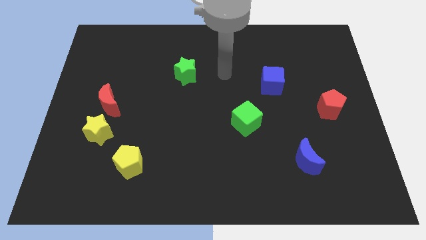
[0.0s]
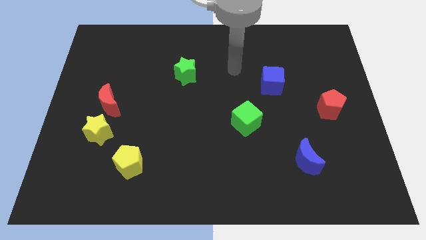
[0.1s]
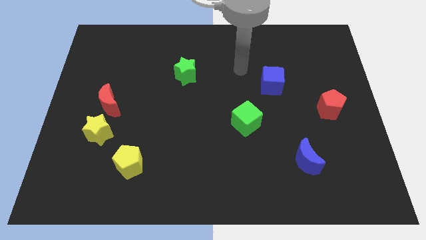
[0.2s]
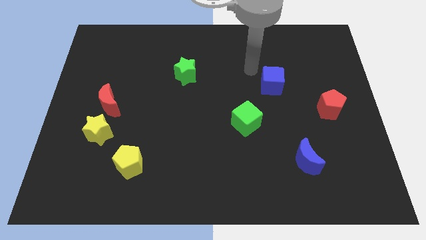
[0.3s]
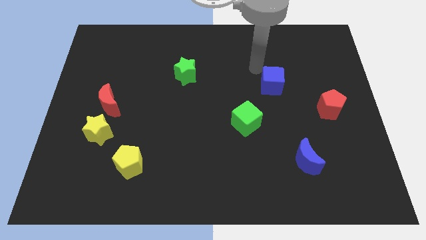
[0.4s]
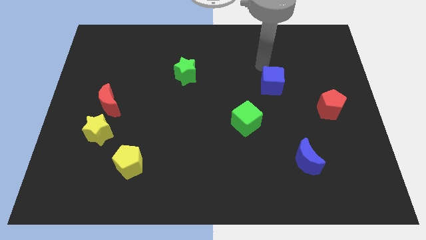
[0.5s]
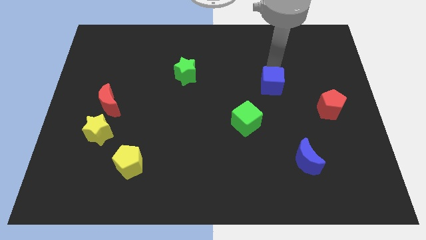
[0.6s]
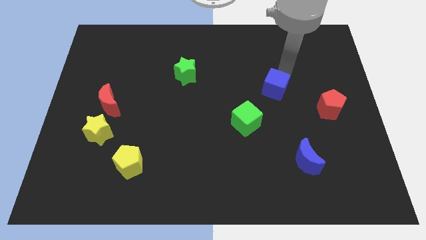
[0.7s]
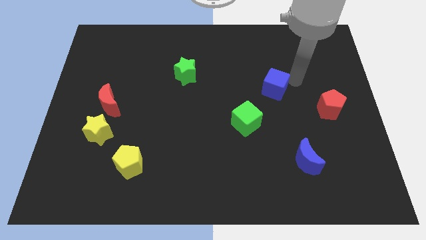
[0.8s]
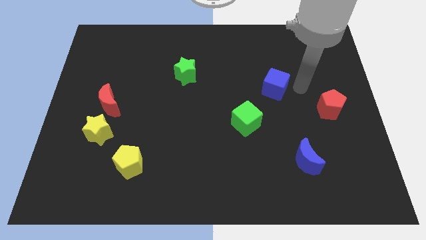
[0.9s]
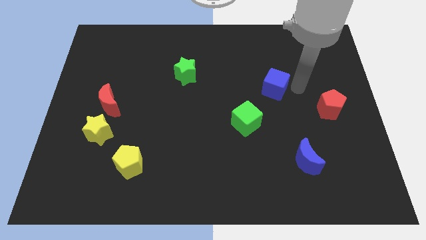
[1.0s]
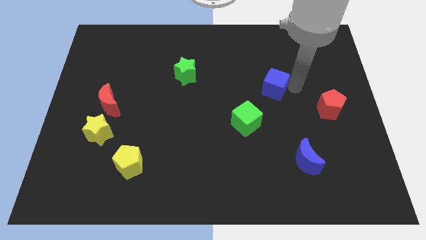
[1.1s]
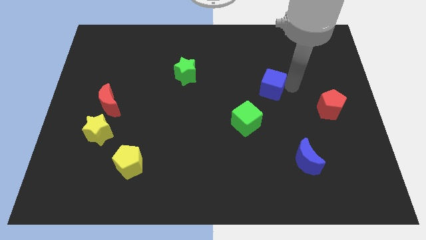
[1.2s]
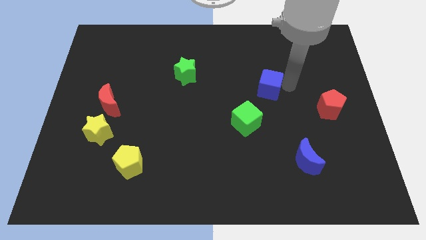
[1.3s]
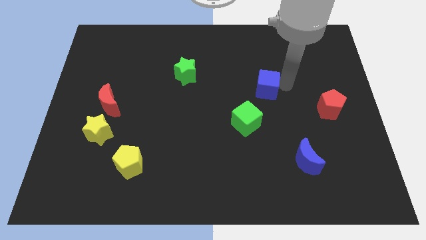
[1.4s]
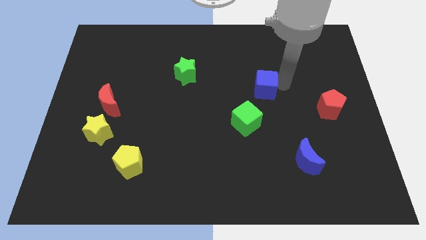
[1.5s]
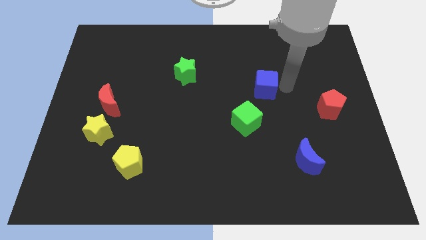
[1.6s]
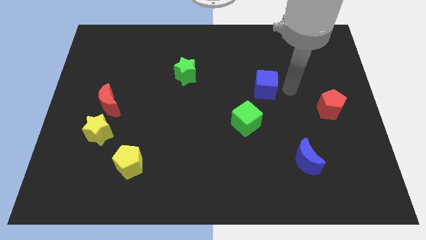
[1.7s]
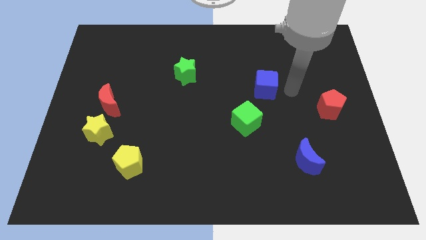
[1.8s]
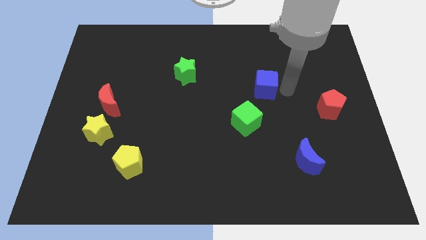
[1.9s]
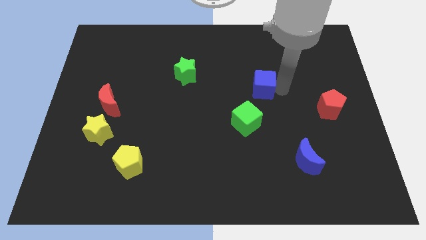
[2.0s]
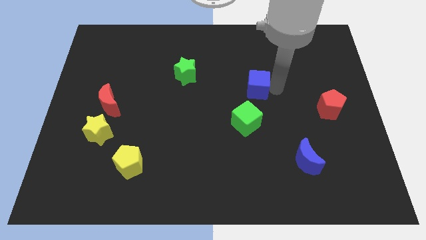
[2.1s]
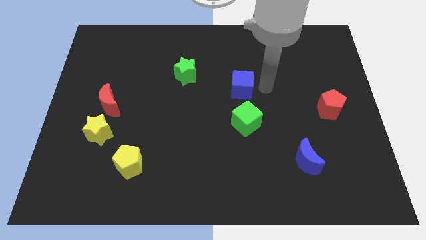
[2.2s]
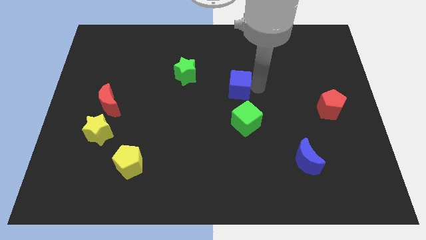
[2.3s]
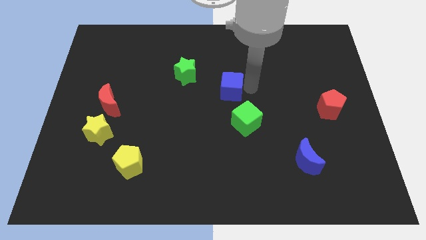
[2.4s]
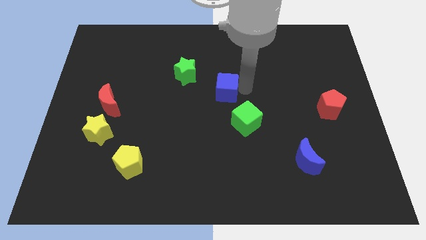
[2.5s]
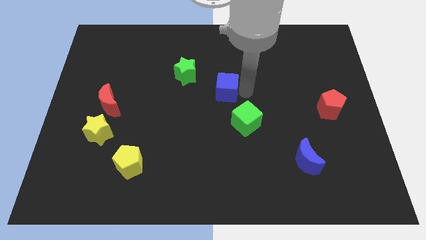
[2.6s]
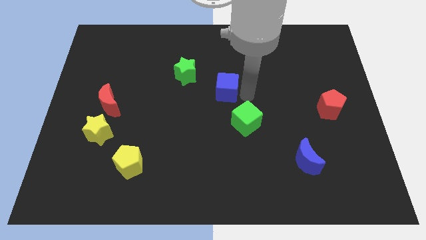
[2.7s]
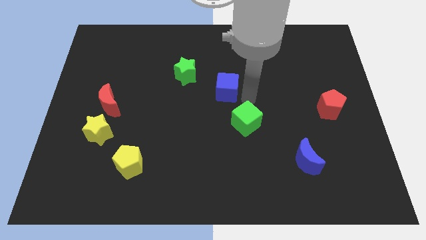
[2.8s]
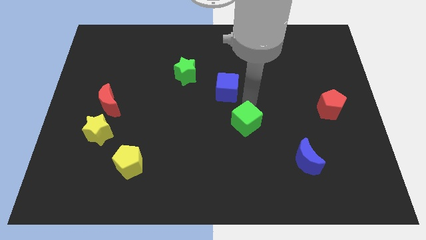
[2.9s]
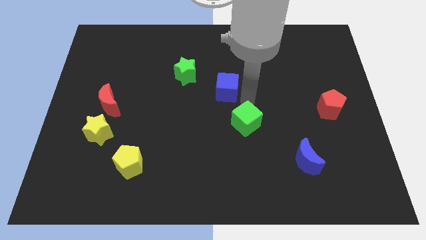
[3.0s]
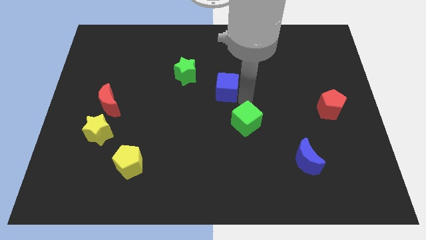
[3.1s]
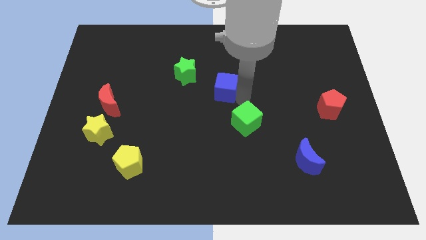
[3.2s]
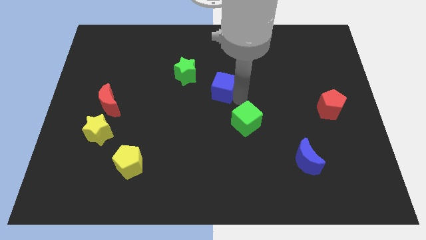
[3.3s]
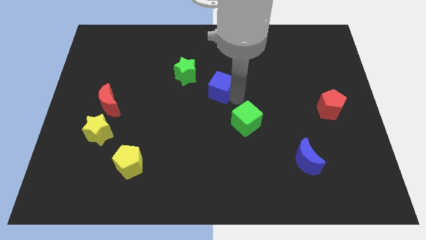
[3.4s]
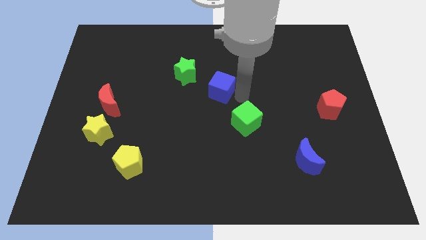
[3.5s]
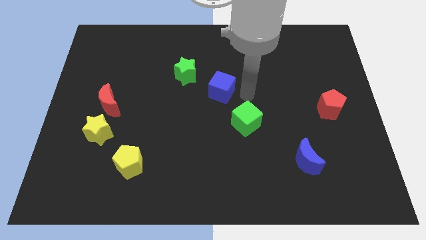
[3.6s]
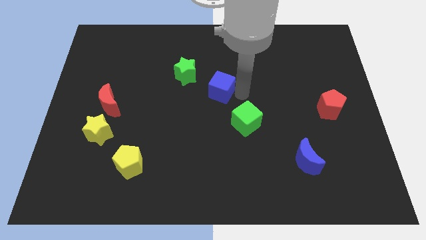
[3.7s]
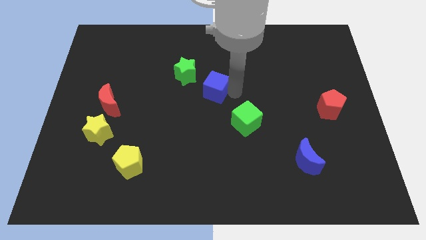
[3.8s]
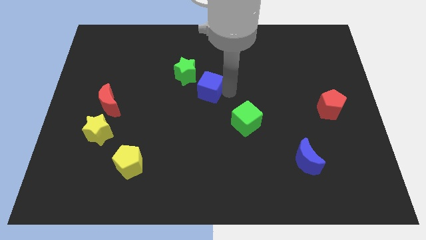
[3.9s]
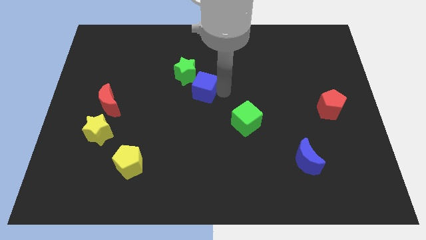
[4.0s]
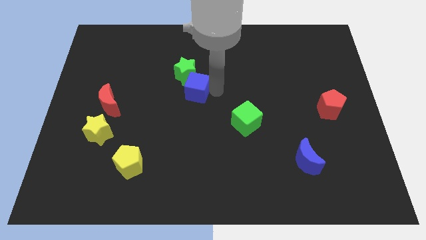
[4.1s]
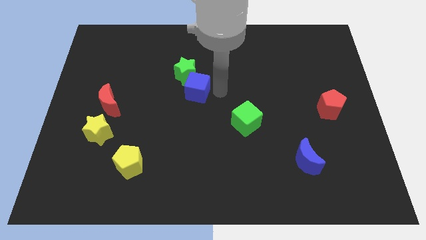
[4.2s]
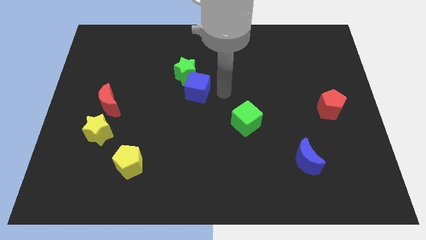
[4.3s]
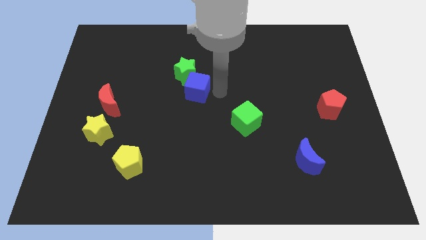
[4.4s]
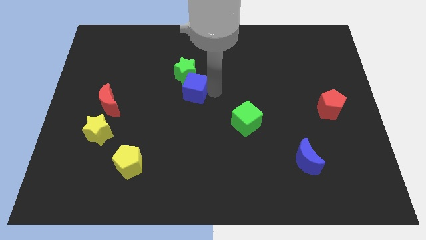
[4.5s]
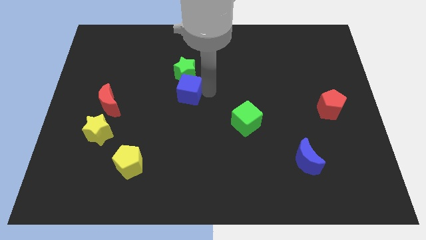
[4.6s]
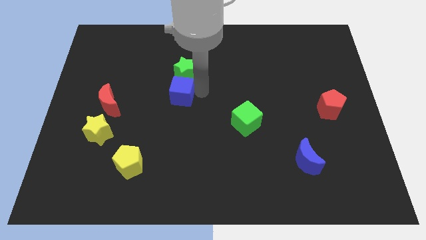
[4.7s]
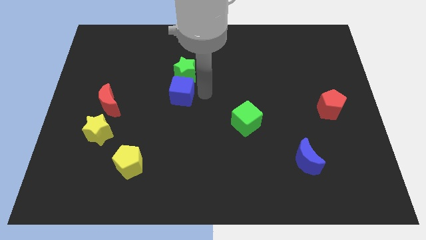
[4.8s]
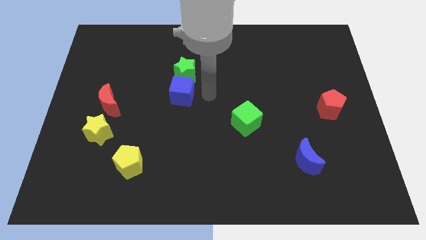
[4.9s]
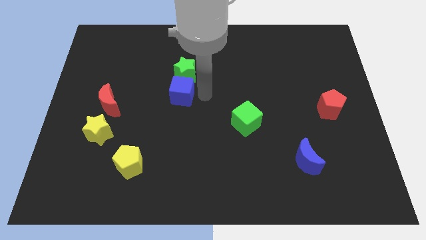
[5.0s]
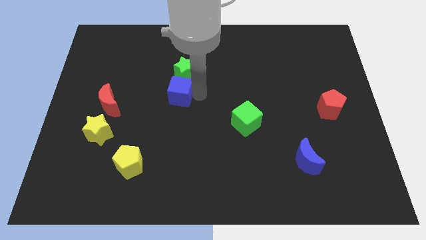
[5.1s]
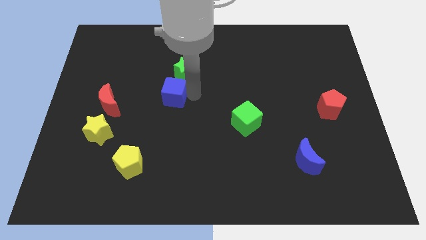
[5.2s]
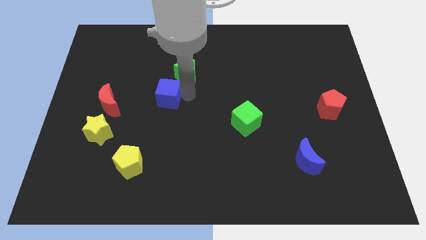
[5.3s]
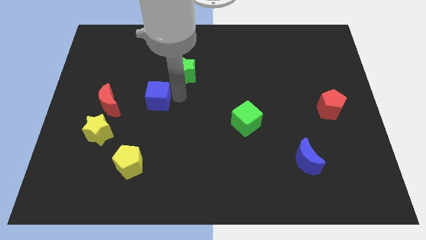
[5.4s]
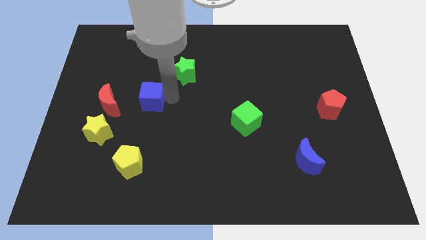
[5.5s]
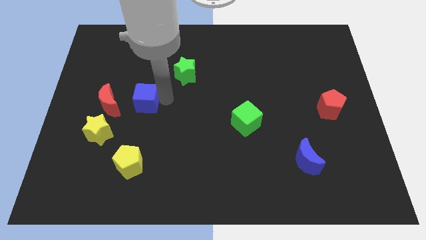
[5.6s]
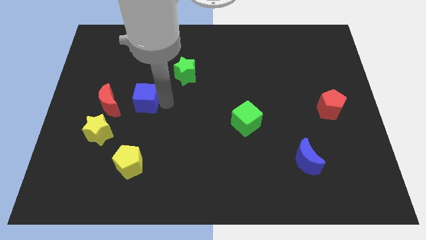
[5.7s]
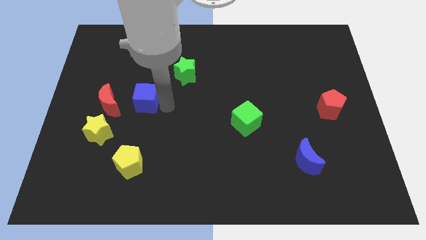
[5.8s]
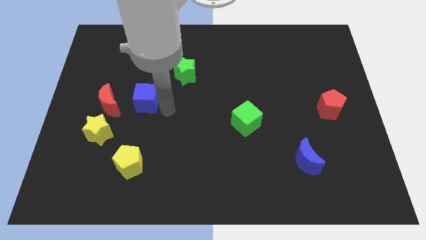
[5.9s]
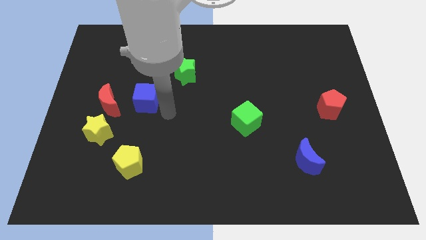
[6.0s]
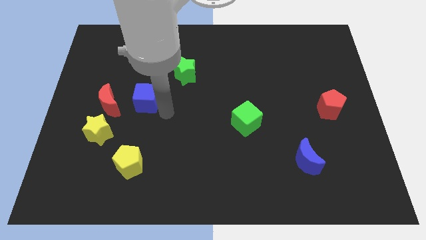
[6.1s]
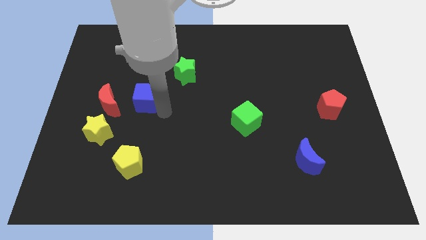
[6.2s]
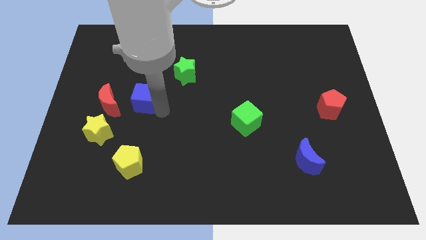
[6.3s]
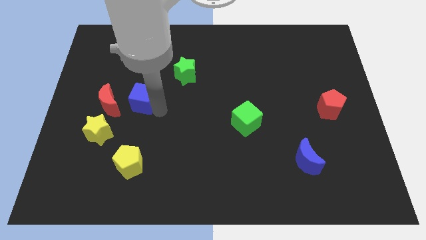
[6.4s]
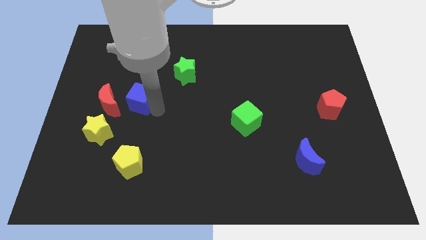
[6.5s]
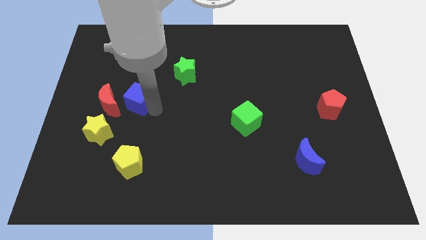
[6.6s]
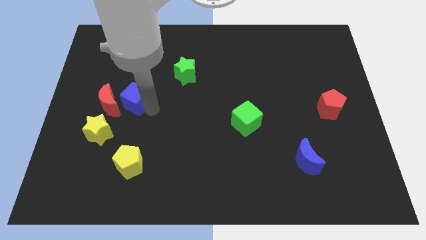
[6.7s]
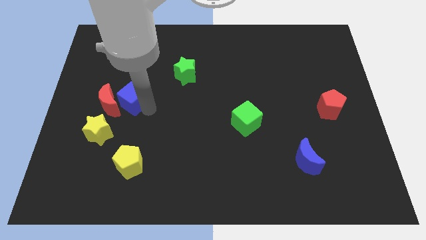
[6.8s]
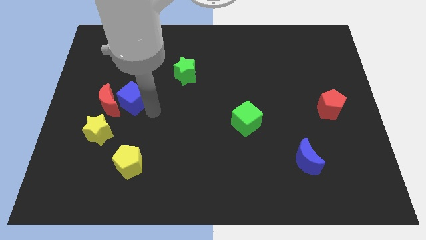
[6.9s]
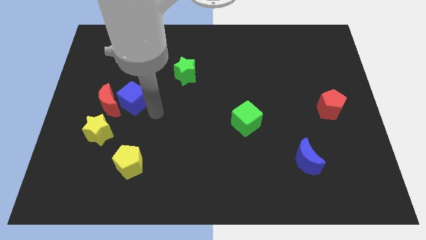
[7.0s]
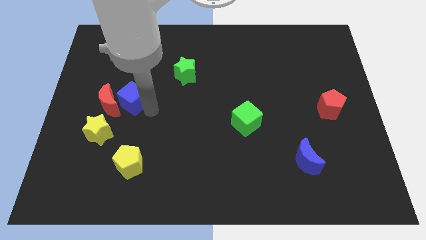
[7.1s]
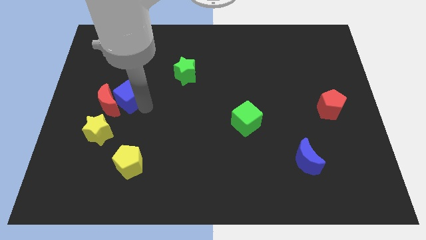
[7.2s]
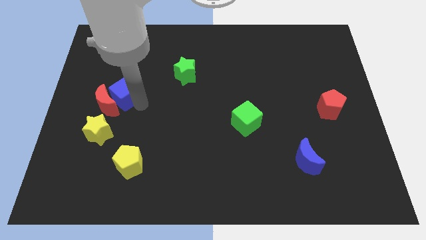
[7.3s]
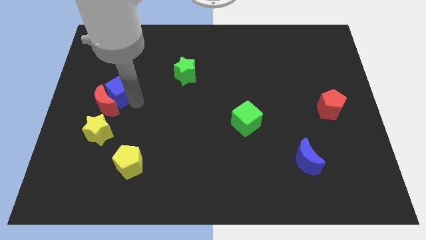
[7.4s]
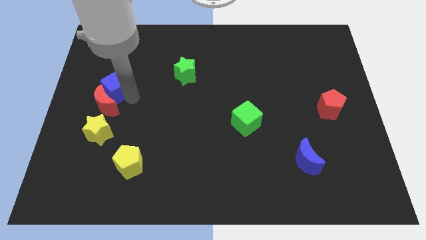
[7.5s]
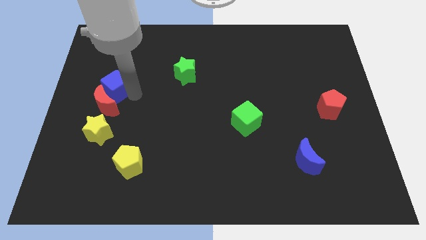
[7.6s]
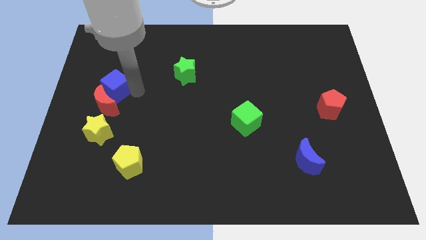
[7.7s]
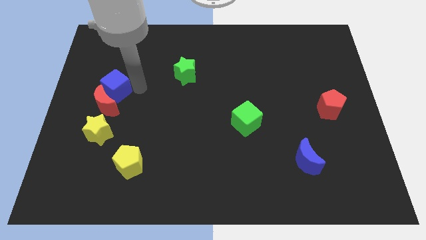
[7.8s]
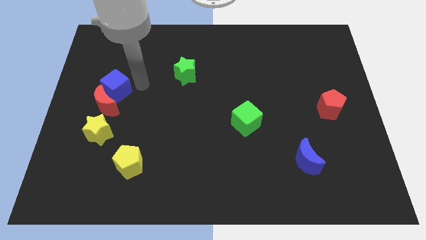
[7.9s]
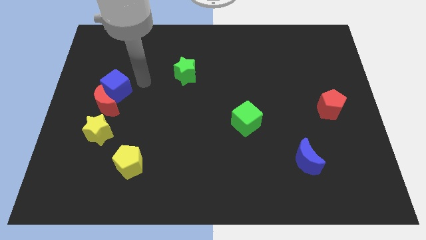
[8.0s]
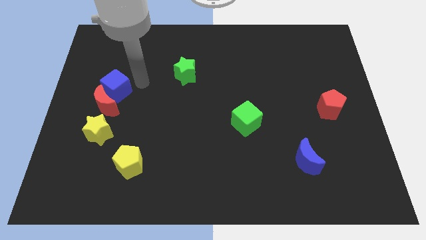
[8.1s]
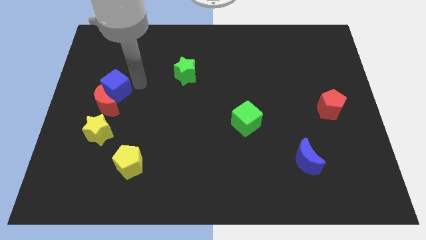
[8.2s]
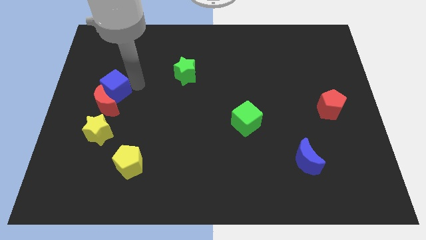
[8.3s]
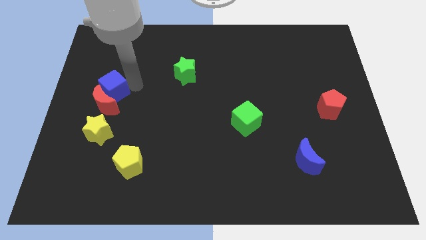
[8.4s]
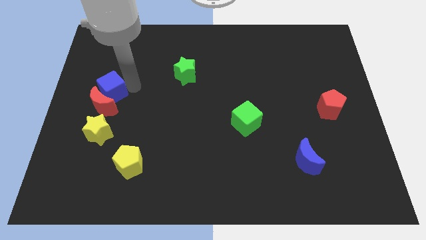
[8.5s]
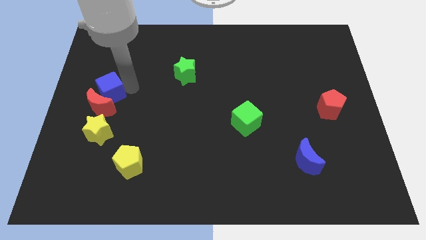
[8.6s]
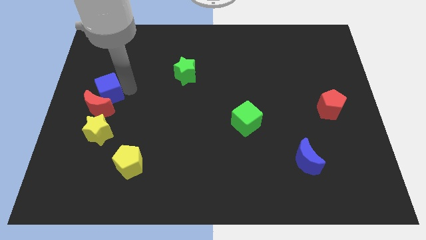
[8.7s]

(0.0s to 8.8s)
slide the blue cube to the left side
